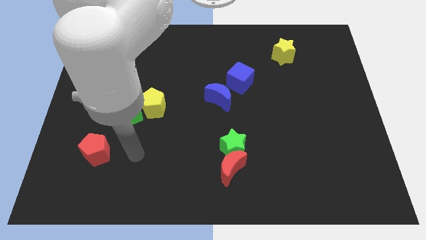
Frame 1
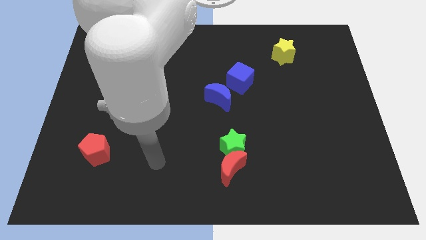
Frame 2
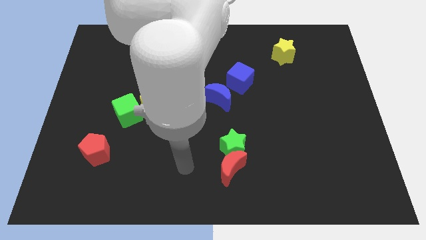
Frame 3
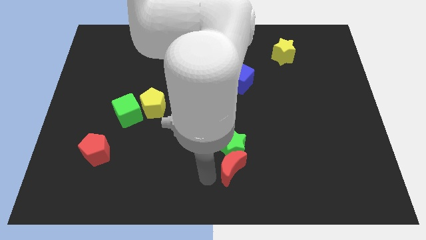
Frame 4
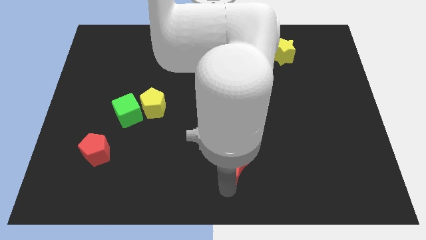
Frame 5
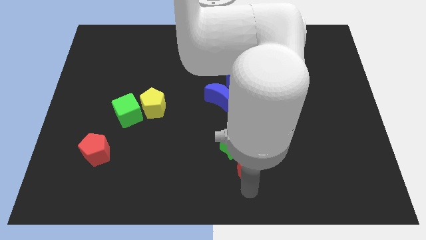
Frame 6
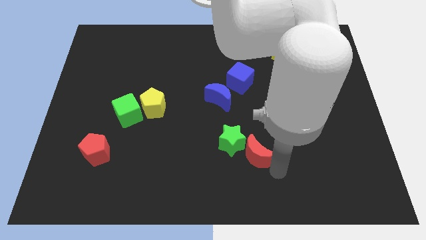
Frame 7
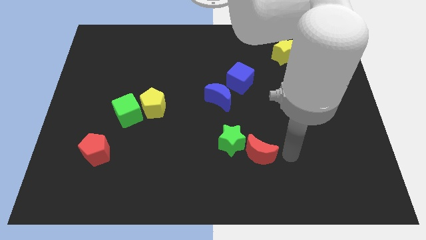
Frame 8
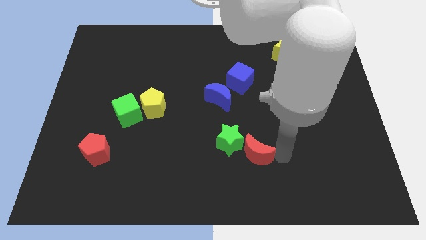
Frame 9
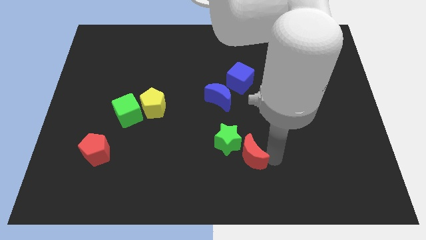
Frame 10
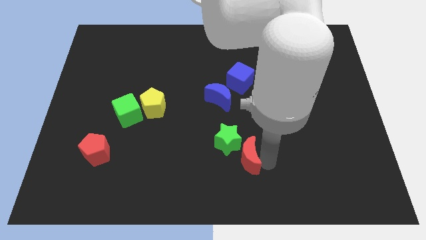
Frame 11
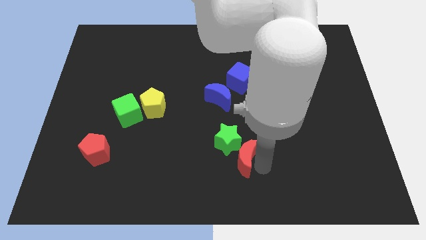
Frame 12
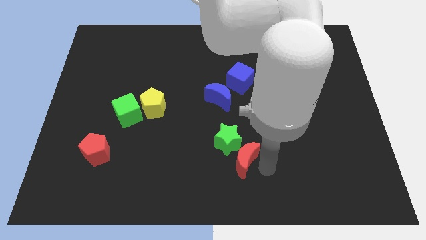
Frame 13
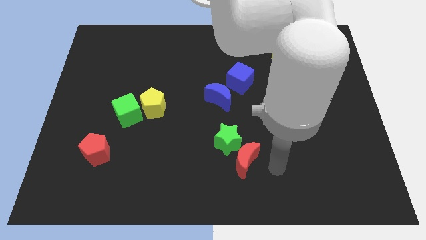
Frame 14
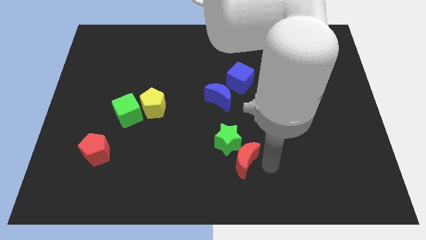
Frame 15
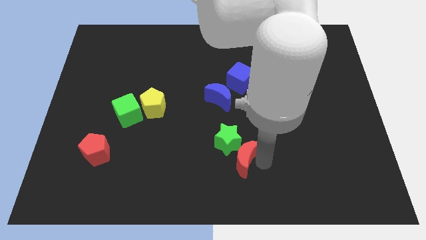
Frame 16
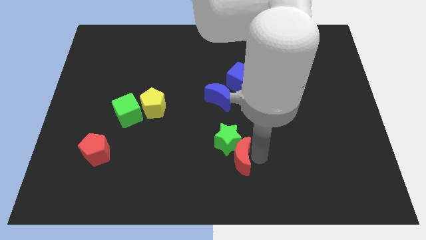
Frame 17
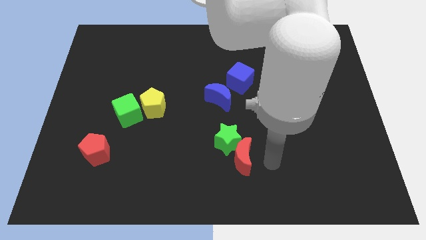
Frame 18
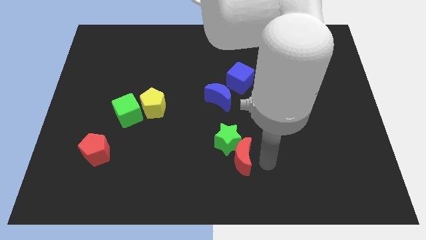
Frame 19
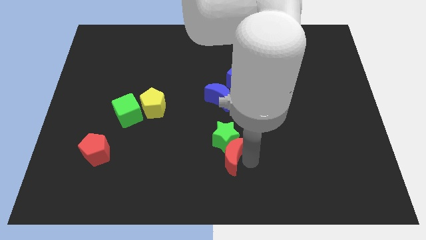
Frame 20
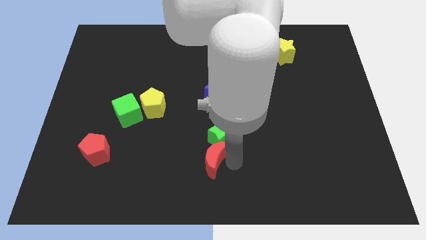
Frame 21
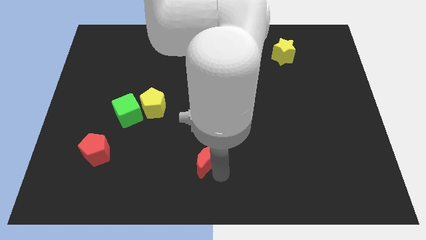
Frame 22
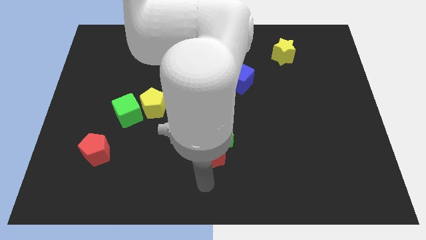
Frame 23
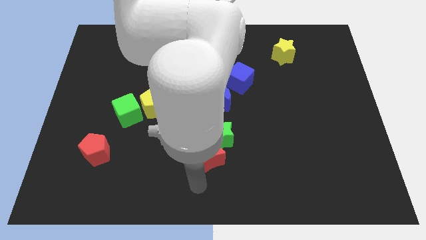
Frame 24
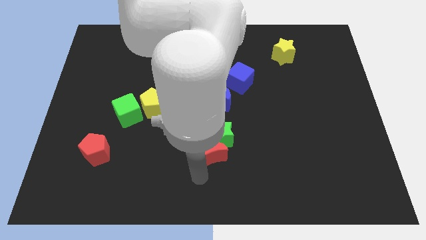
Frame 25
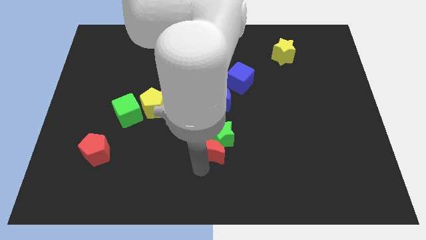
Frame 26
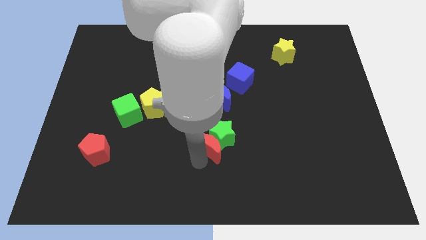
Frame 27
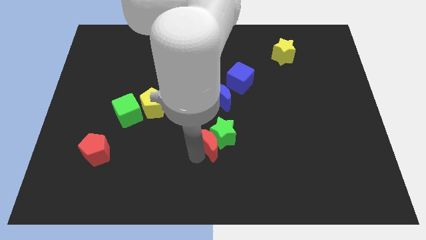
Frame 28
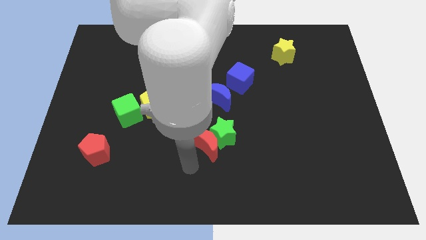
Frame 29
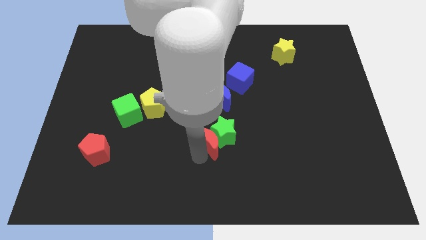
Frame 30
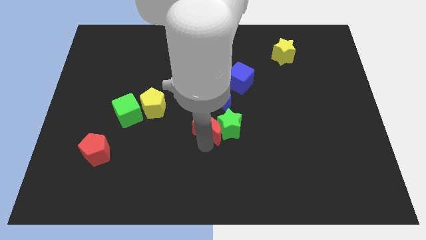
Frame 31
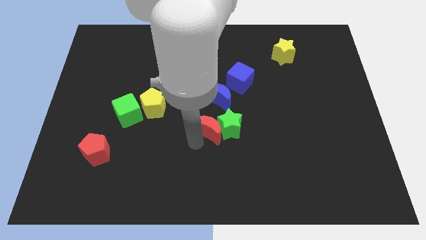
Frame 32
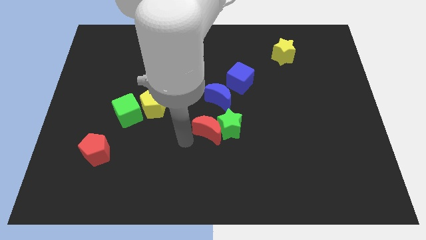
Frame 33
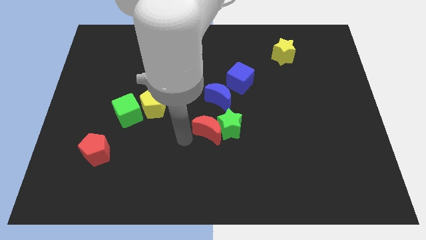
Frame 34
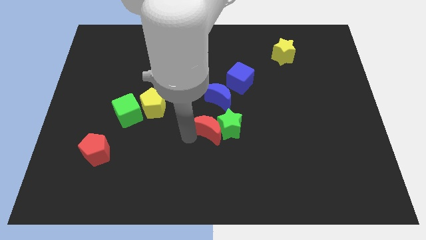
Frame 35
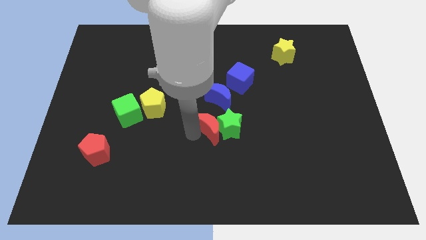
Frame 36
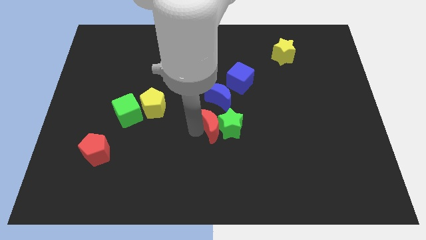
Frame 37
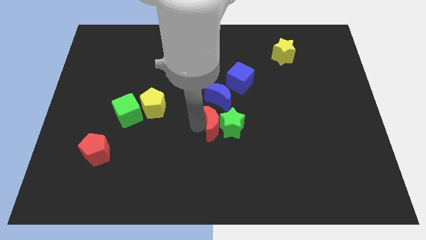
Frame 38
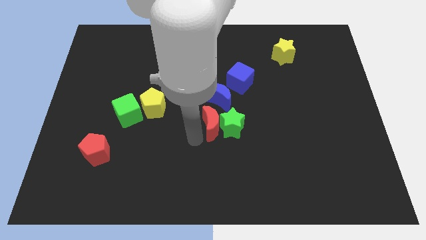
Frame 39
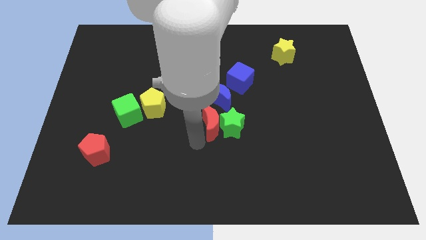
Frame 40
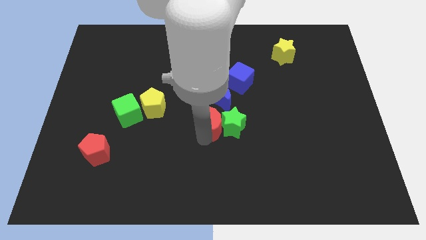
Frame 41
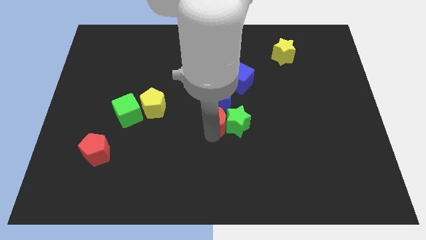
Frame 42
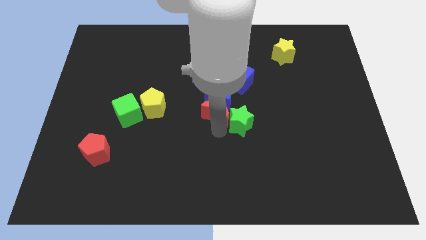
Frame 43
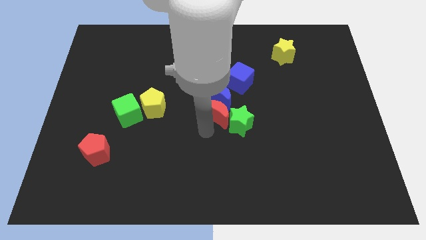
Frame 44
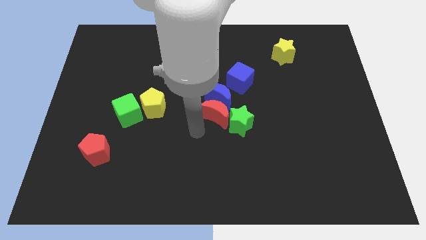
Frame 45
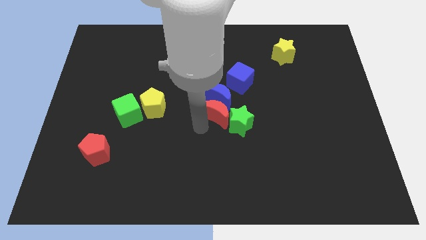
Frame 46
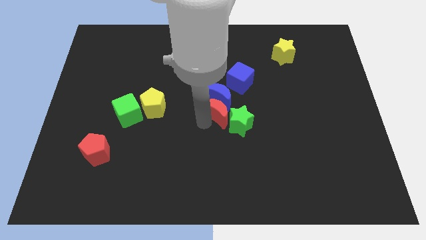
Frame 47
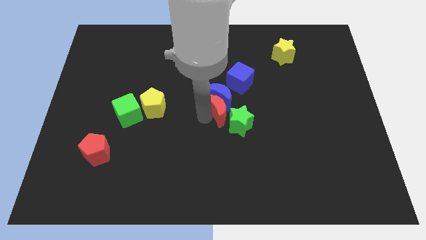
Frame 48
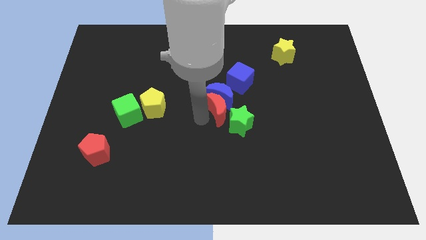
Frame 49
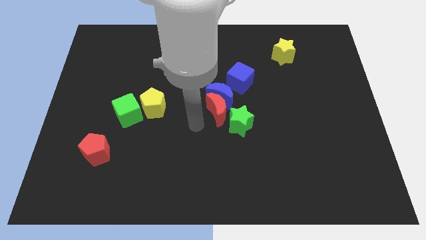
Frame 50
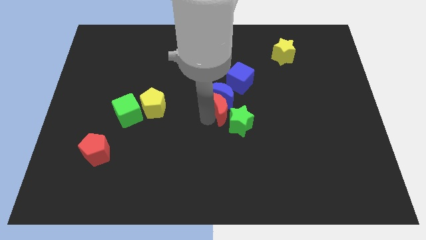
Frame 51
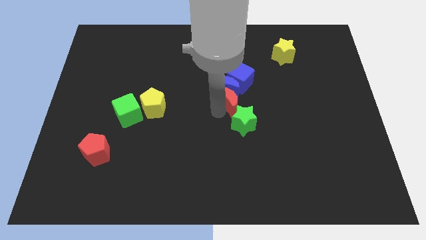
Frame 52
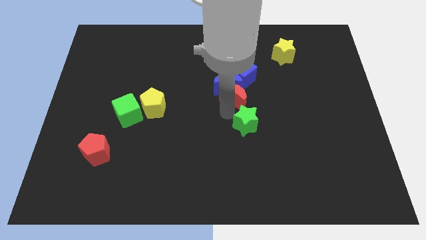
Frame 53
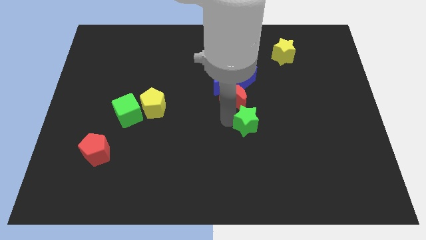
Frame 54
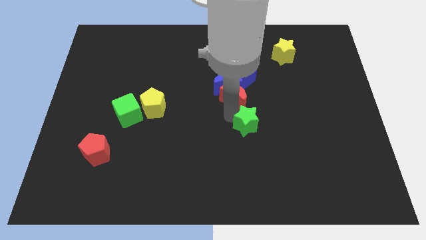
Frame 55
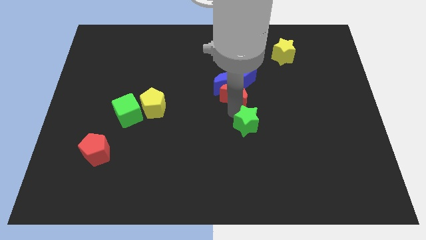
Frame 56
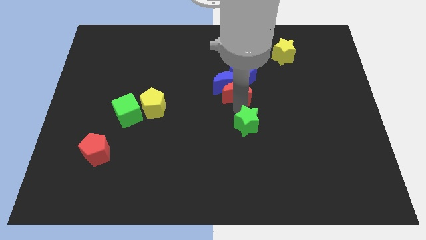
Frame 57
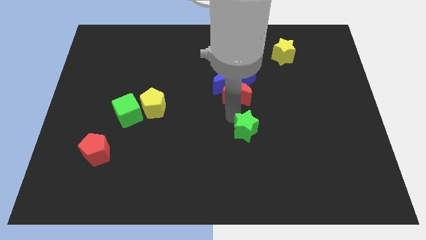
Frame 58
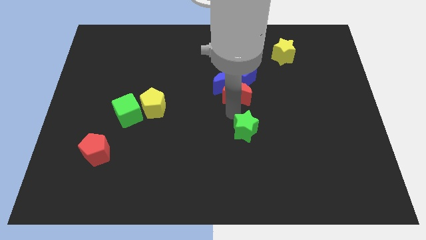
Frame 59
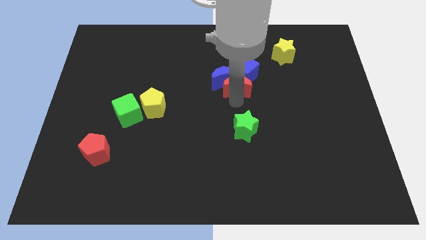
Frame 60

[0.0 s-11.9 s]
put the red moon to the blue cube
